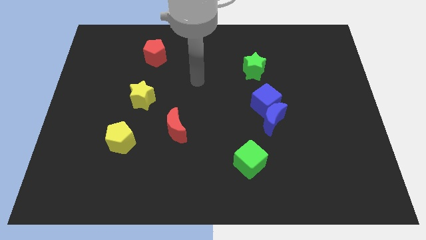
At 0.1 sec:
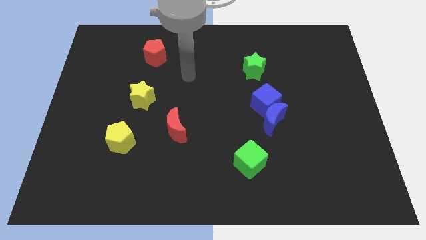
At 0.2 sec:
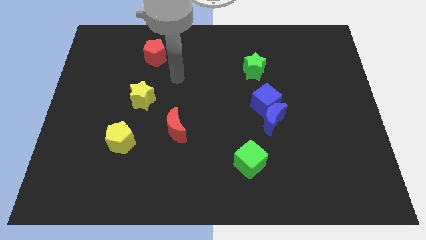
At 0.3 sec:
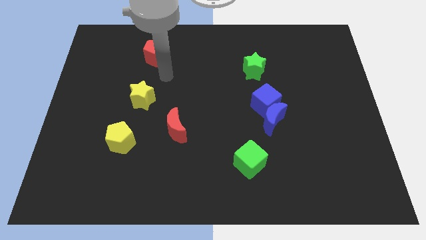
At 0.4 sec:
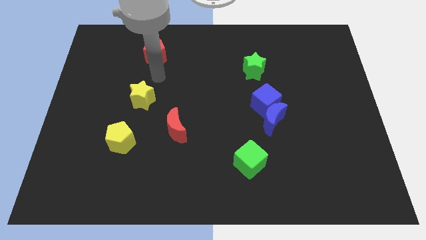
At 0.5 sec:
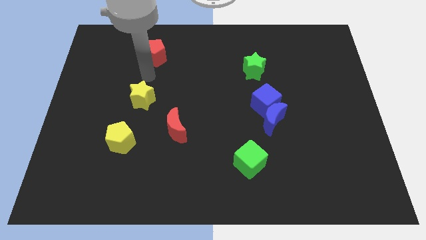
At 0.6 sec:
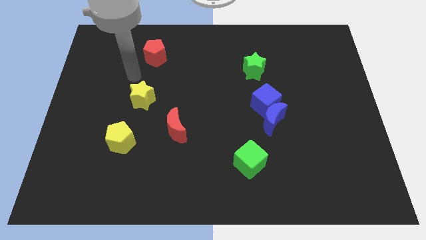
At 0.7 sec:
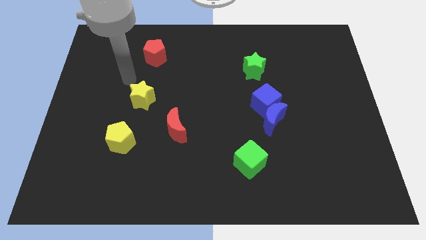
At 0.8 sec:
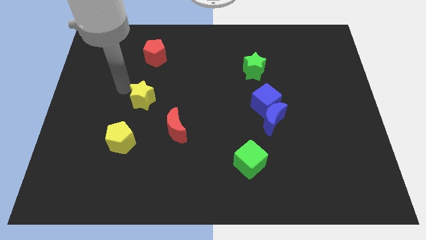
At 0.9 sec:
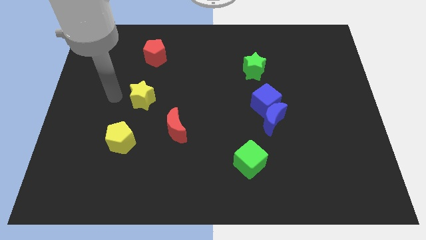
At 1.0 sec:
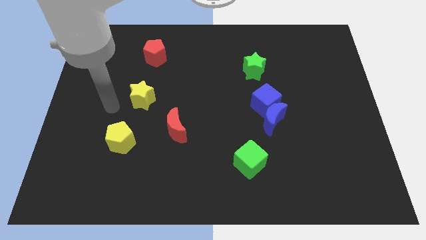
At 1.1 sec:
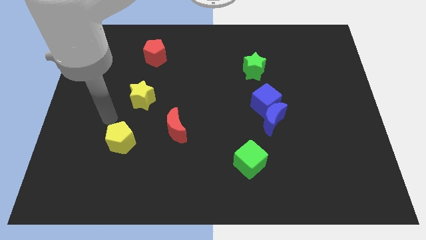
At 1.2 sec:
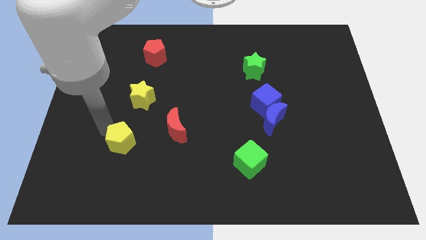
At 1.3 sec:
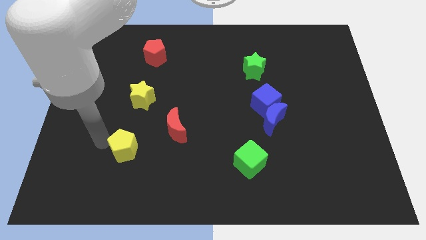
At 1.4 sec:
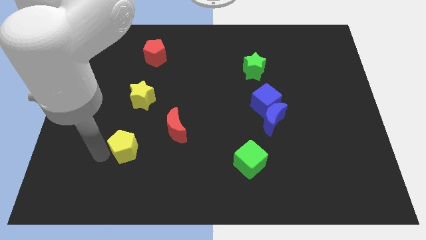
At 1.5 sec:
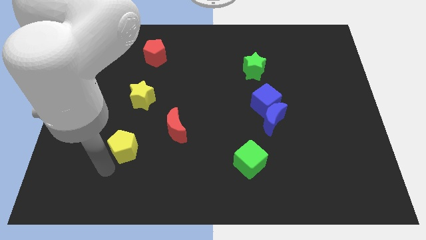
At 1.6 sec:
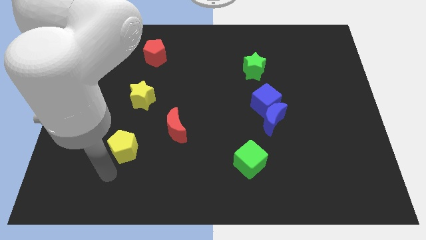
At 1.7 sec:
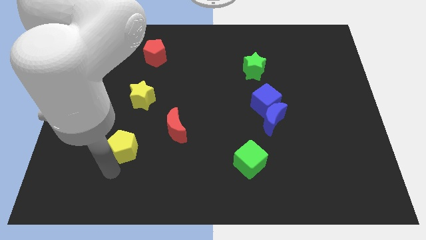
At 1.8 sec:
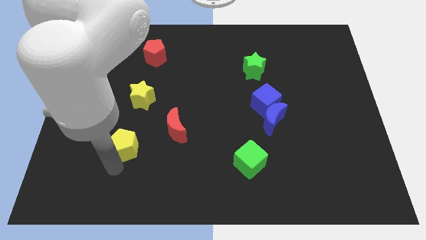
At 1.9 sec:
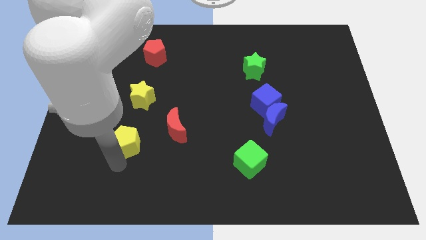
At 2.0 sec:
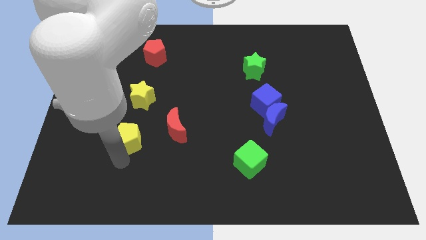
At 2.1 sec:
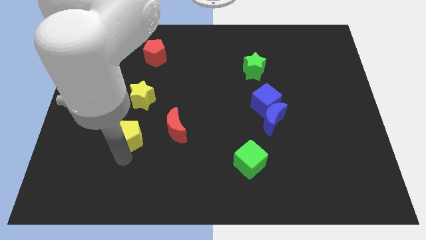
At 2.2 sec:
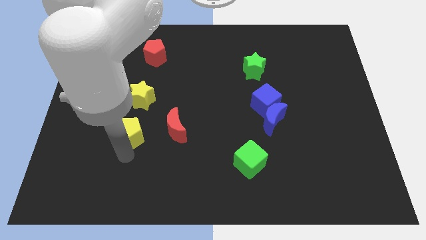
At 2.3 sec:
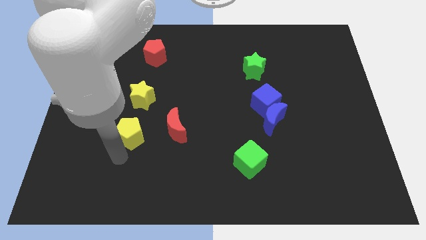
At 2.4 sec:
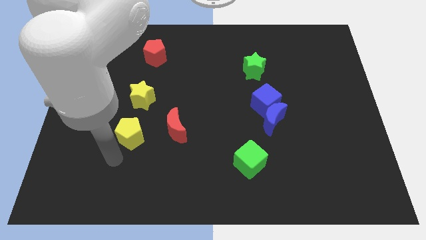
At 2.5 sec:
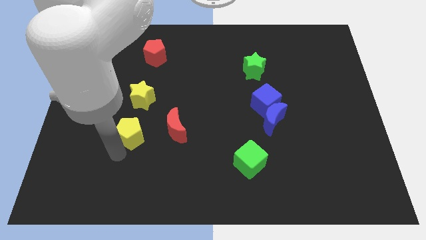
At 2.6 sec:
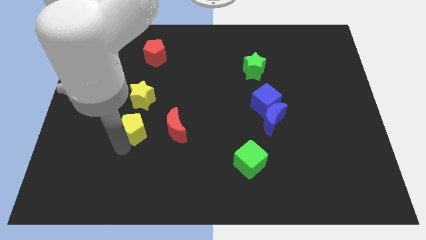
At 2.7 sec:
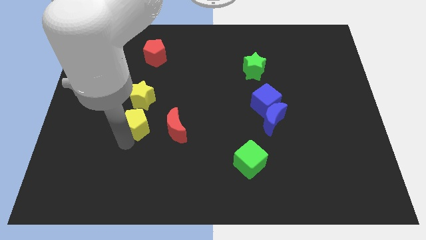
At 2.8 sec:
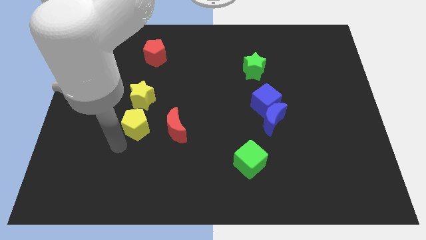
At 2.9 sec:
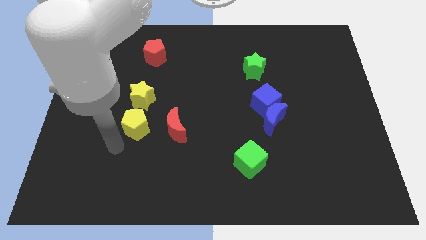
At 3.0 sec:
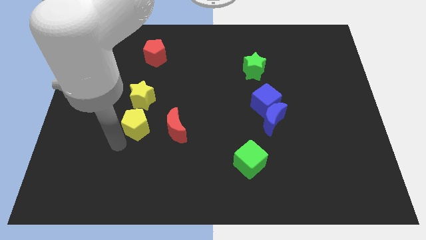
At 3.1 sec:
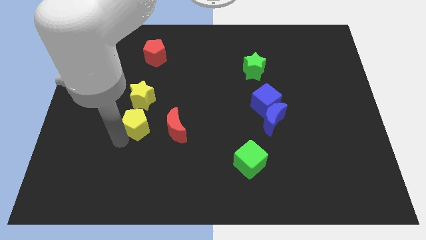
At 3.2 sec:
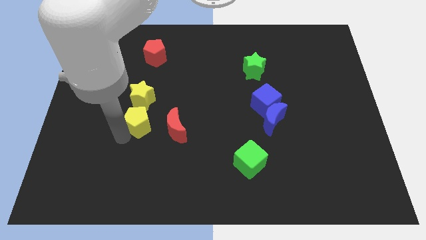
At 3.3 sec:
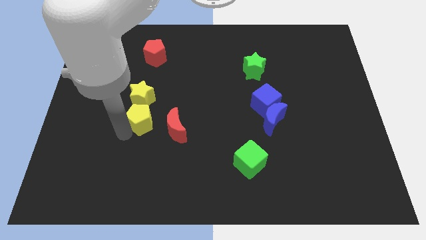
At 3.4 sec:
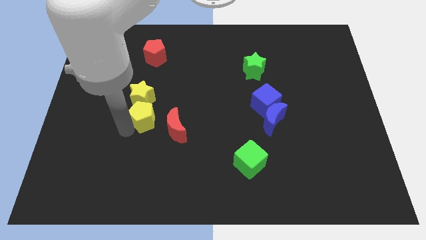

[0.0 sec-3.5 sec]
push the yellow pentagon diagonally upwards and right a bit

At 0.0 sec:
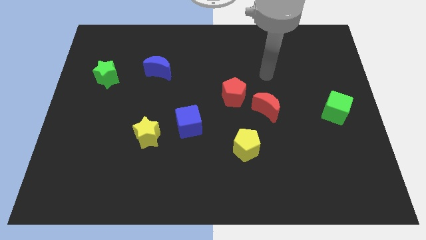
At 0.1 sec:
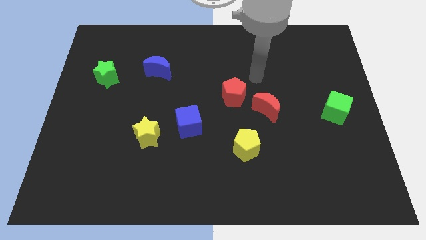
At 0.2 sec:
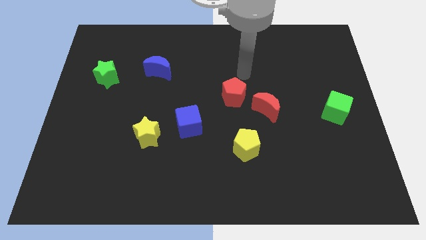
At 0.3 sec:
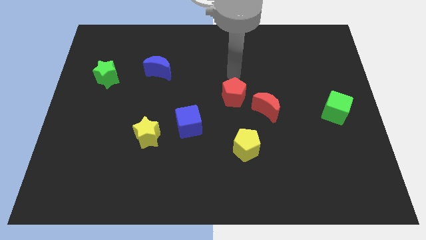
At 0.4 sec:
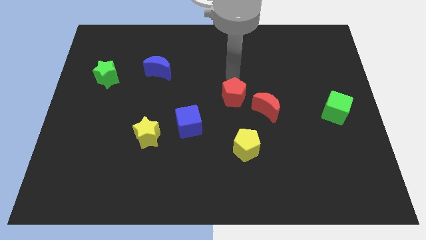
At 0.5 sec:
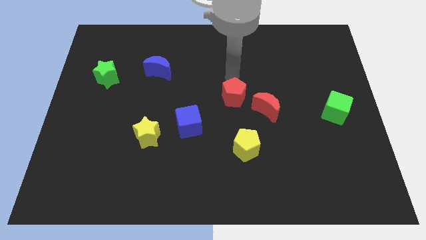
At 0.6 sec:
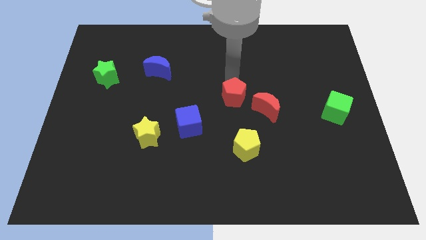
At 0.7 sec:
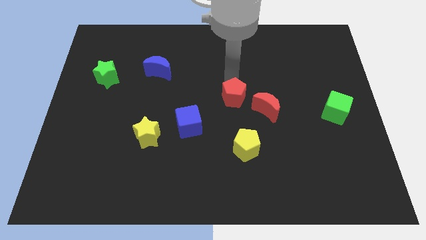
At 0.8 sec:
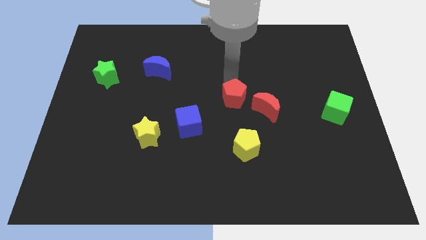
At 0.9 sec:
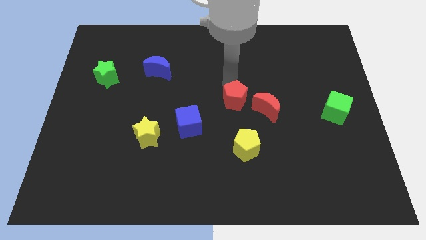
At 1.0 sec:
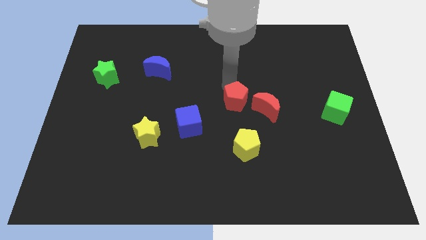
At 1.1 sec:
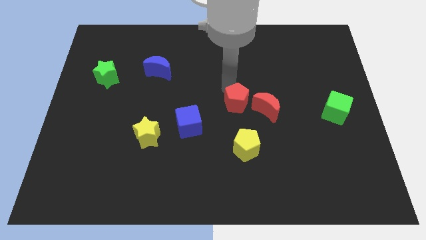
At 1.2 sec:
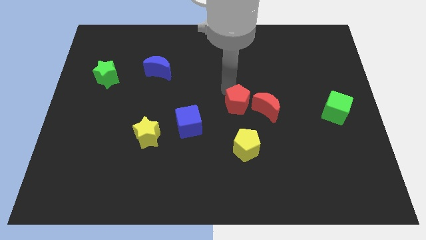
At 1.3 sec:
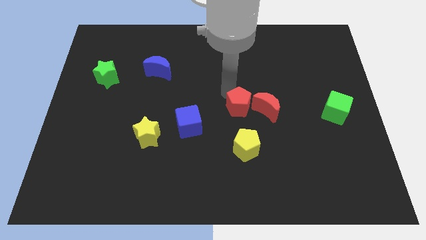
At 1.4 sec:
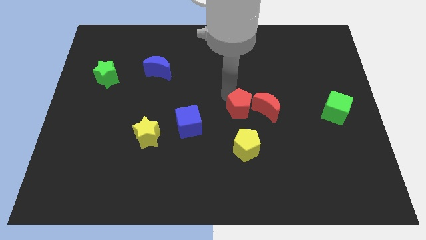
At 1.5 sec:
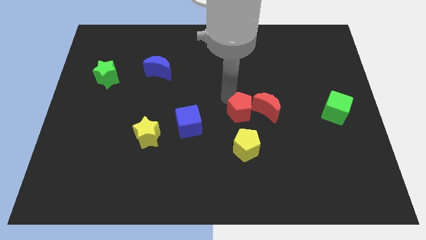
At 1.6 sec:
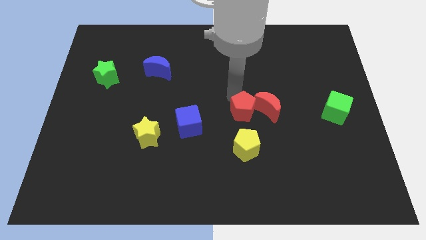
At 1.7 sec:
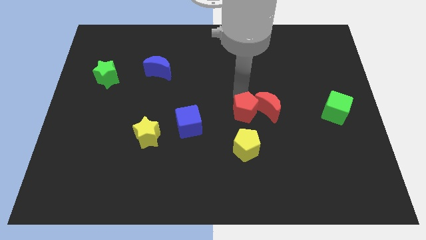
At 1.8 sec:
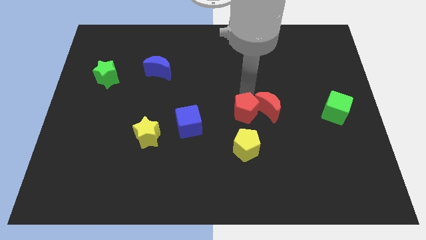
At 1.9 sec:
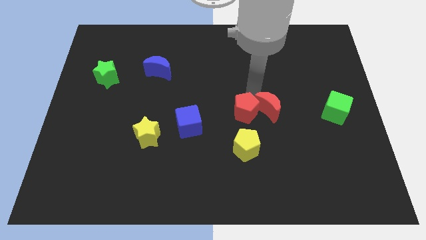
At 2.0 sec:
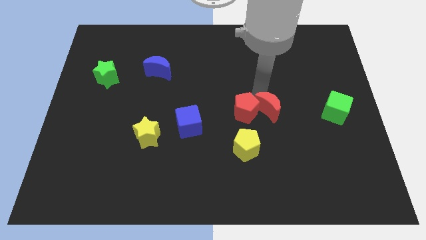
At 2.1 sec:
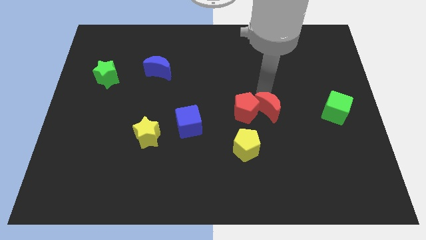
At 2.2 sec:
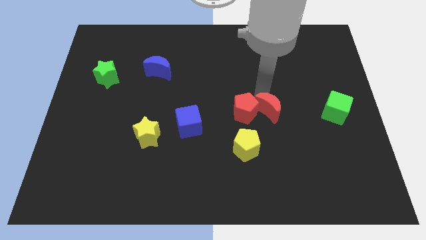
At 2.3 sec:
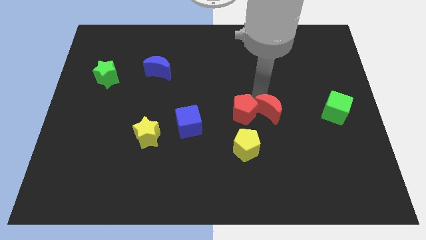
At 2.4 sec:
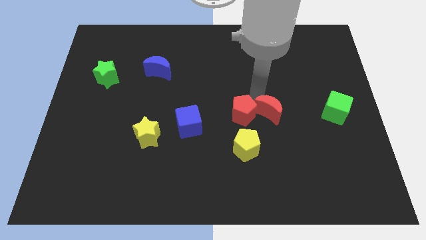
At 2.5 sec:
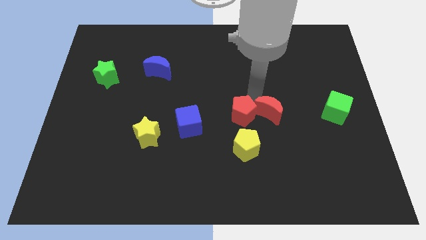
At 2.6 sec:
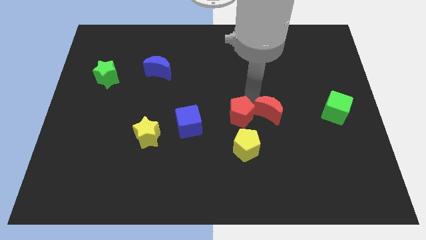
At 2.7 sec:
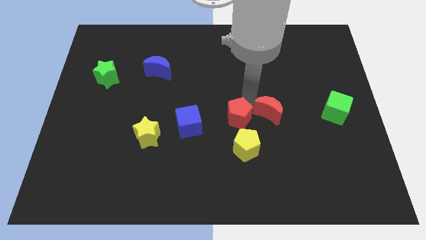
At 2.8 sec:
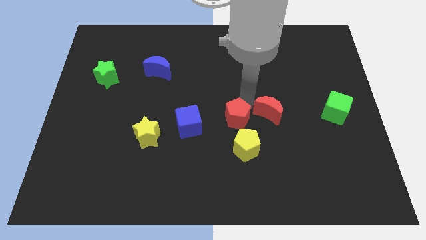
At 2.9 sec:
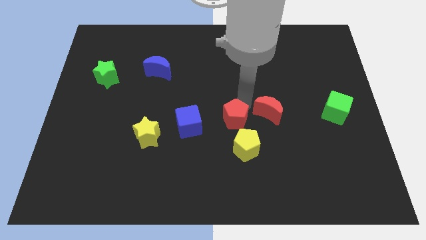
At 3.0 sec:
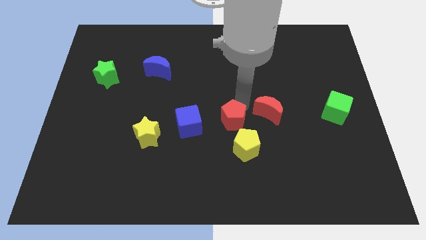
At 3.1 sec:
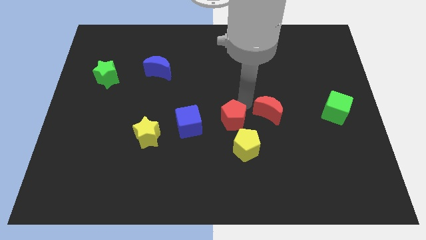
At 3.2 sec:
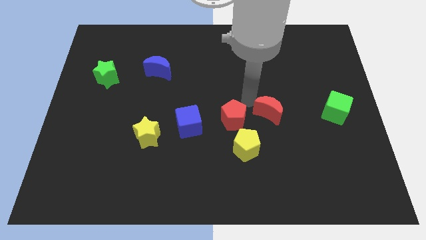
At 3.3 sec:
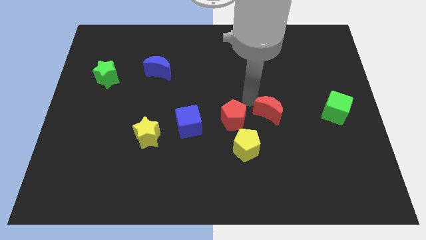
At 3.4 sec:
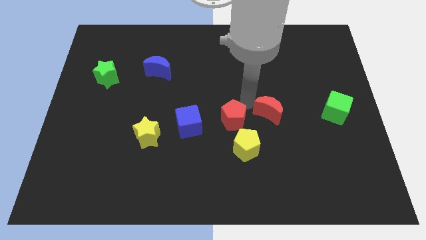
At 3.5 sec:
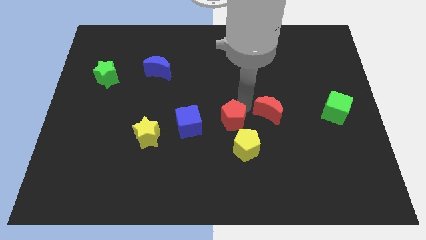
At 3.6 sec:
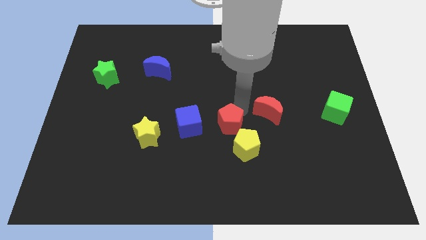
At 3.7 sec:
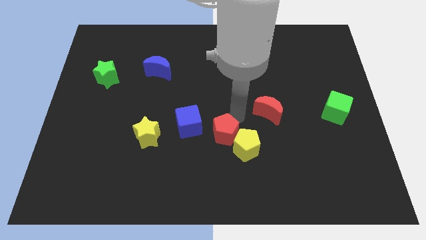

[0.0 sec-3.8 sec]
move the red pentagon down and left diagonally a little

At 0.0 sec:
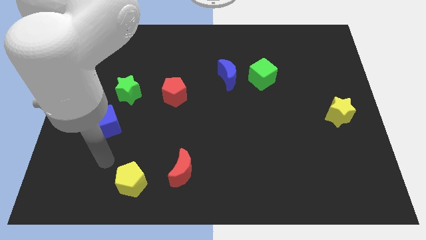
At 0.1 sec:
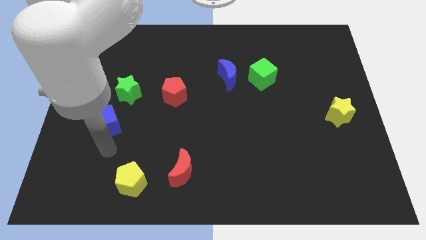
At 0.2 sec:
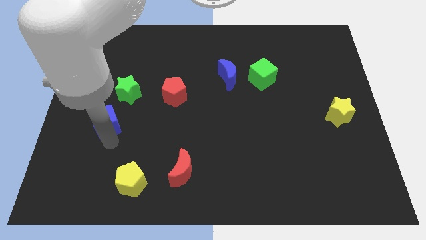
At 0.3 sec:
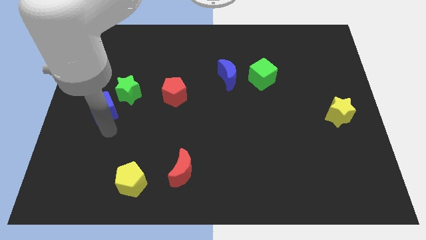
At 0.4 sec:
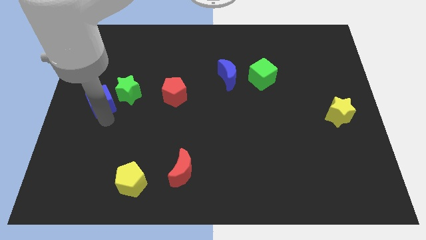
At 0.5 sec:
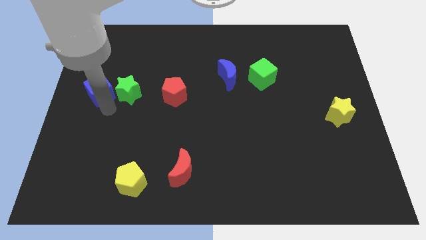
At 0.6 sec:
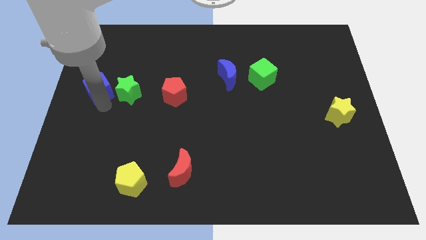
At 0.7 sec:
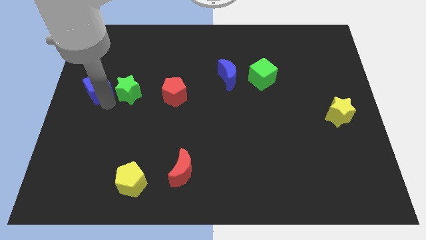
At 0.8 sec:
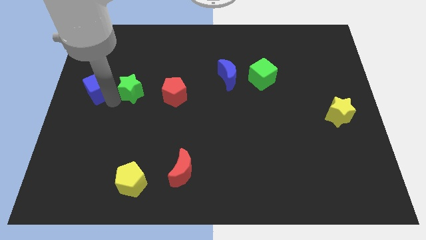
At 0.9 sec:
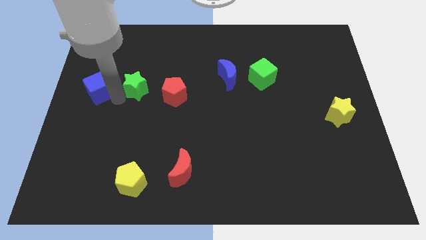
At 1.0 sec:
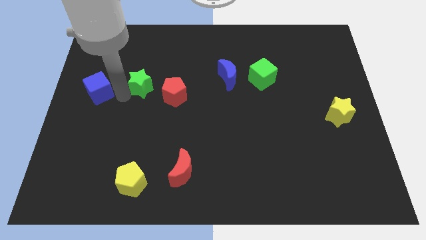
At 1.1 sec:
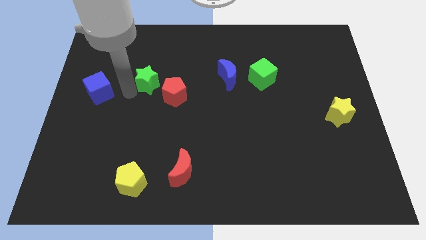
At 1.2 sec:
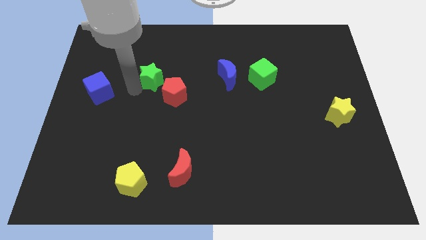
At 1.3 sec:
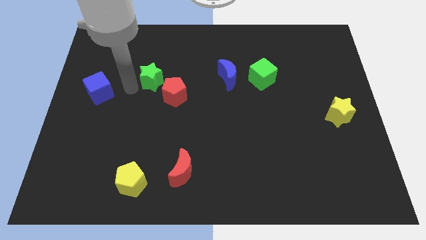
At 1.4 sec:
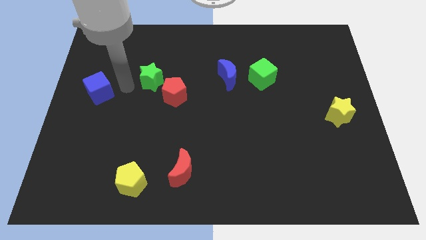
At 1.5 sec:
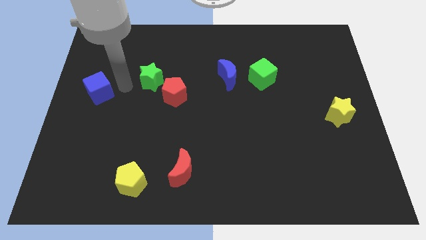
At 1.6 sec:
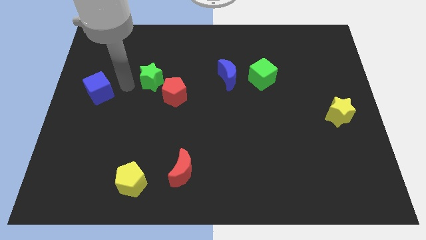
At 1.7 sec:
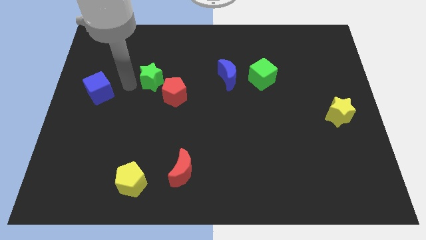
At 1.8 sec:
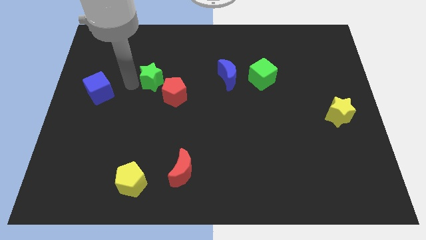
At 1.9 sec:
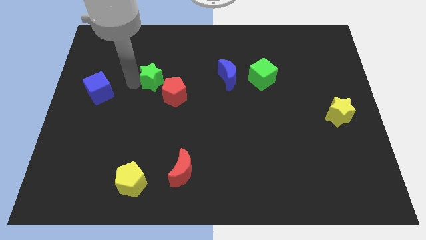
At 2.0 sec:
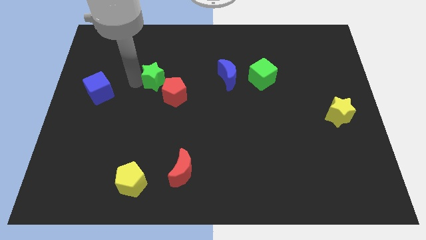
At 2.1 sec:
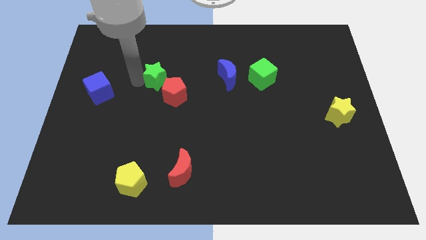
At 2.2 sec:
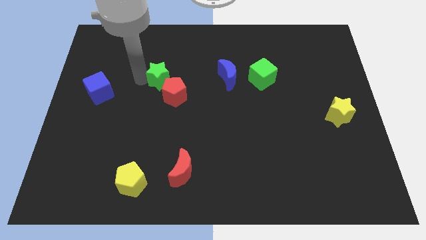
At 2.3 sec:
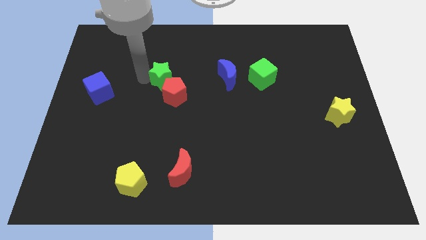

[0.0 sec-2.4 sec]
slightly slide the green star to the right
